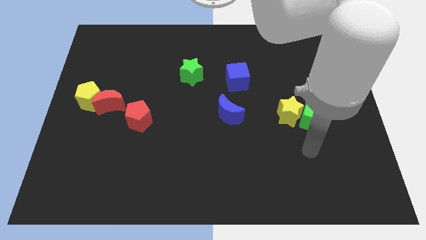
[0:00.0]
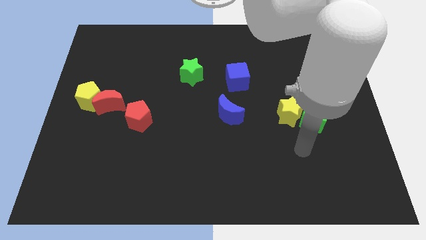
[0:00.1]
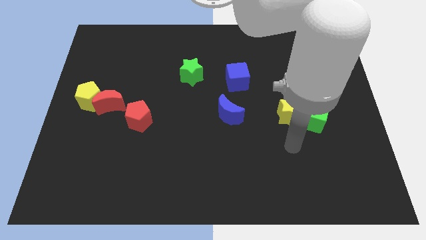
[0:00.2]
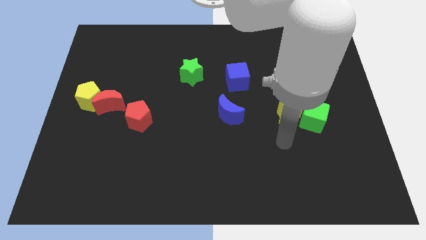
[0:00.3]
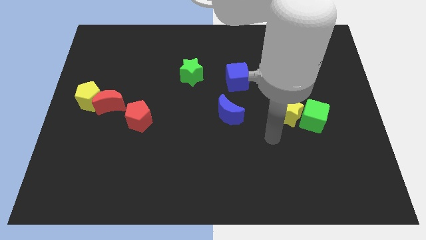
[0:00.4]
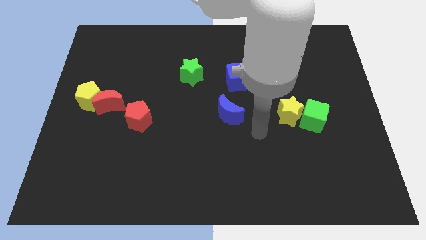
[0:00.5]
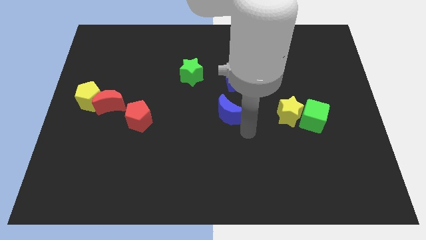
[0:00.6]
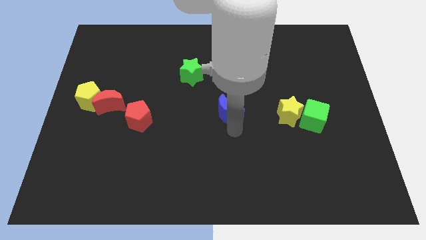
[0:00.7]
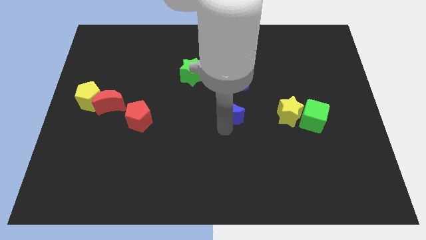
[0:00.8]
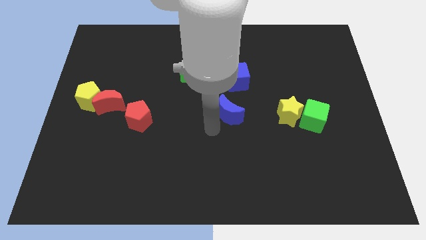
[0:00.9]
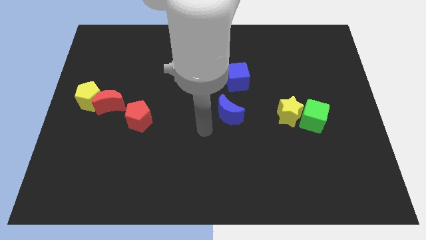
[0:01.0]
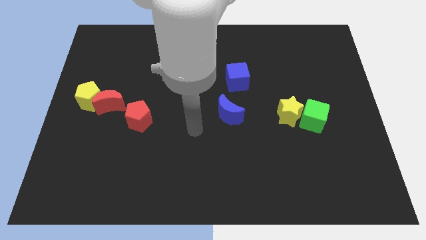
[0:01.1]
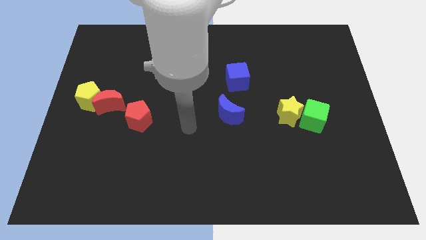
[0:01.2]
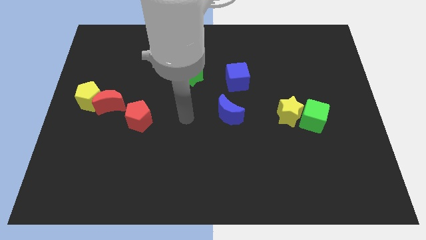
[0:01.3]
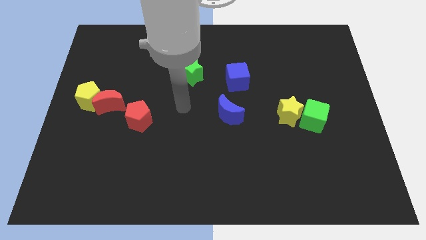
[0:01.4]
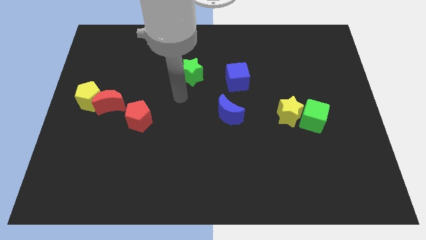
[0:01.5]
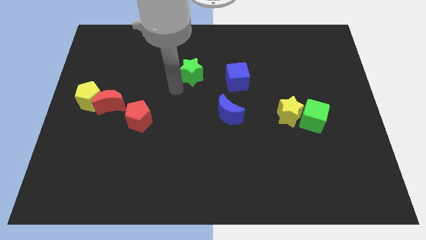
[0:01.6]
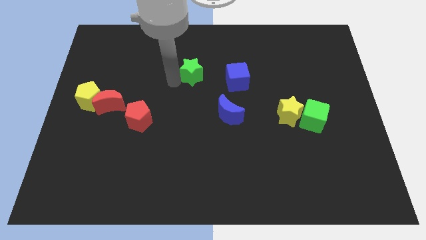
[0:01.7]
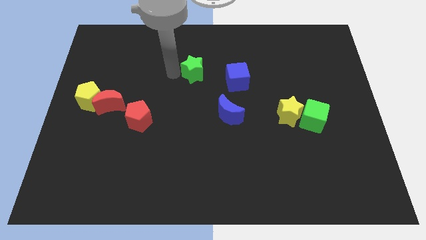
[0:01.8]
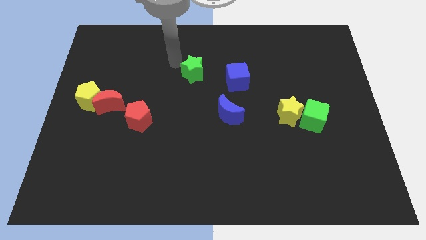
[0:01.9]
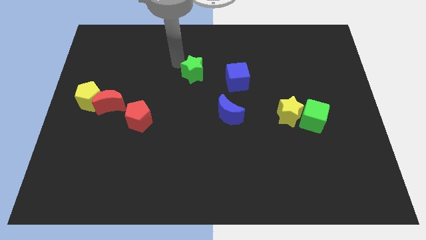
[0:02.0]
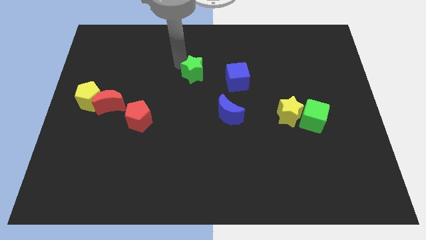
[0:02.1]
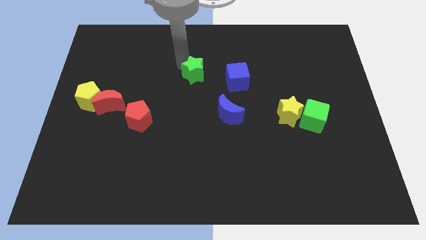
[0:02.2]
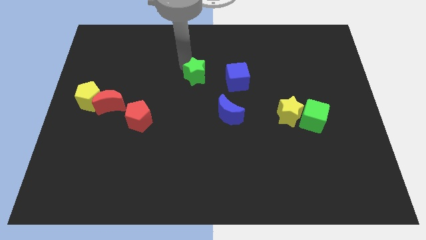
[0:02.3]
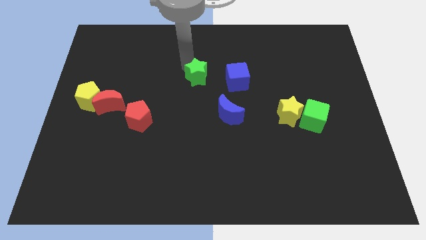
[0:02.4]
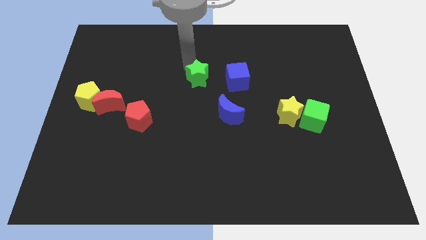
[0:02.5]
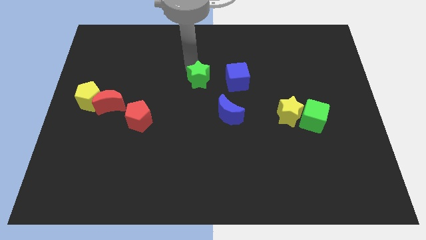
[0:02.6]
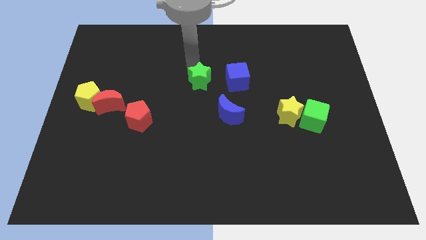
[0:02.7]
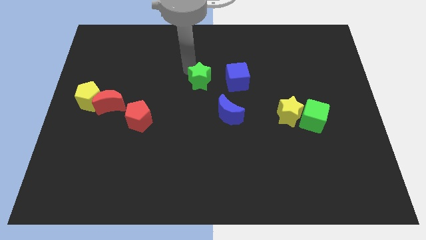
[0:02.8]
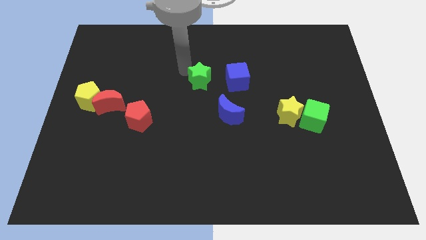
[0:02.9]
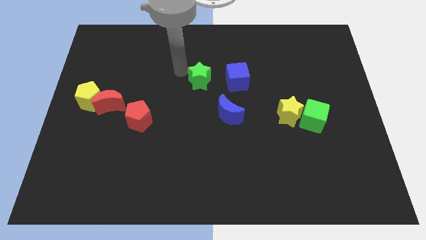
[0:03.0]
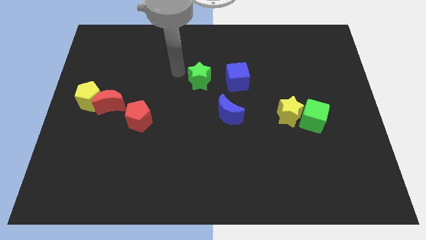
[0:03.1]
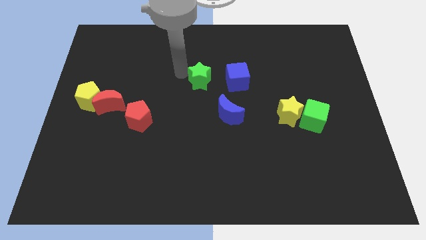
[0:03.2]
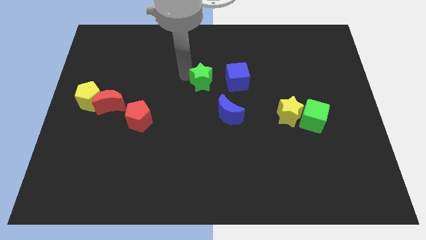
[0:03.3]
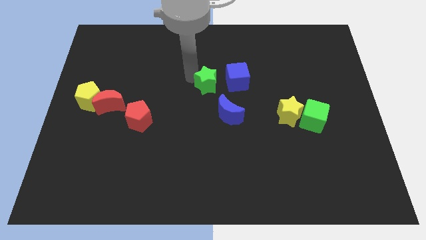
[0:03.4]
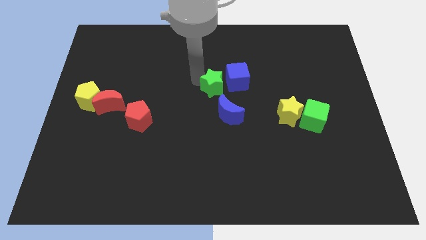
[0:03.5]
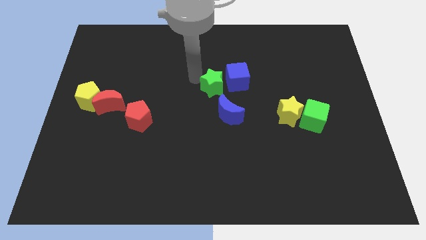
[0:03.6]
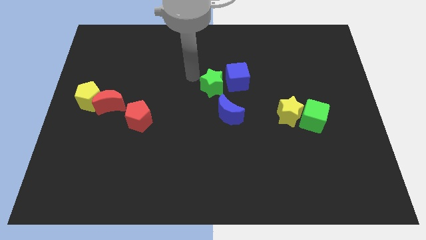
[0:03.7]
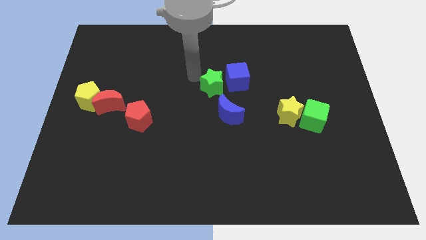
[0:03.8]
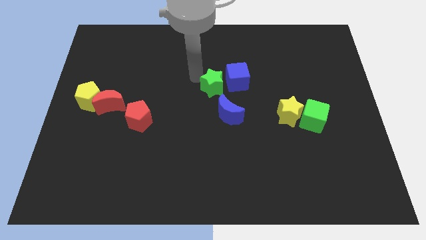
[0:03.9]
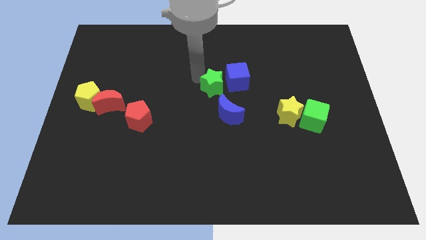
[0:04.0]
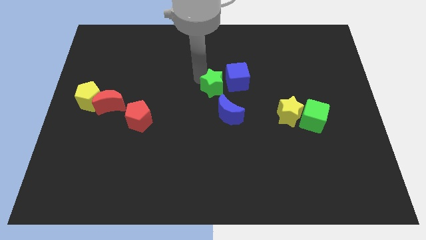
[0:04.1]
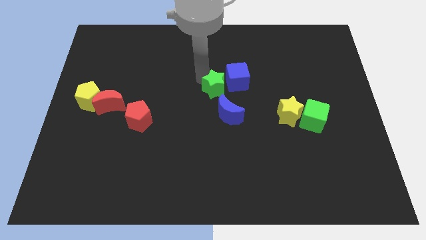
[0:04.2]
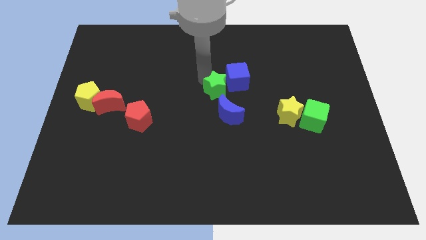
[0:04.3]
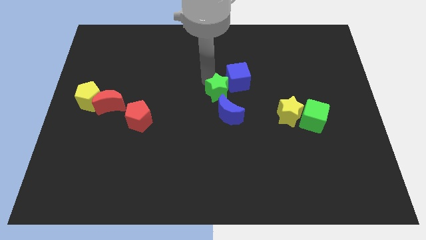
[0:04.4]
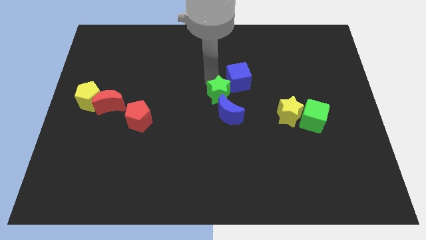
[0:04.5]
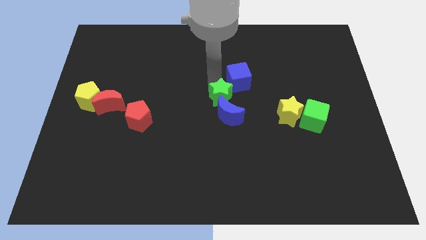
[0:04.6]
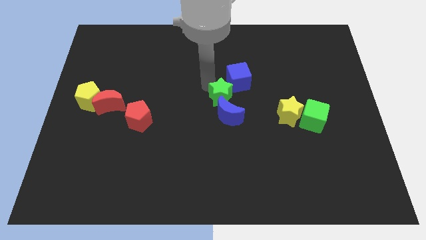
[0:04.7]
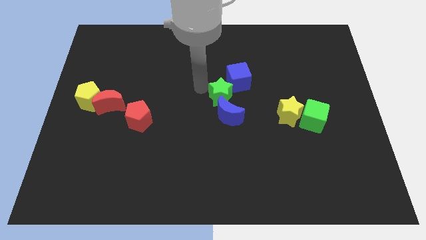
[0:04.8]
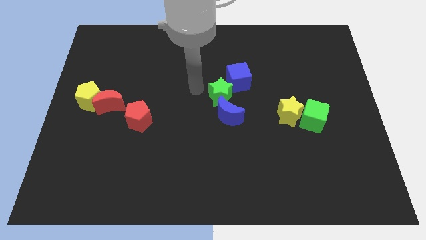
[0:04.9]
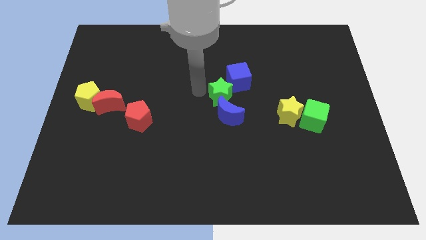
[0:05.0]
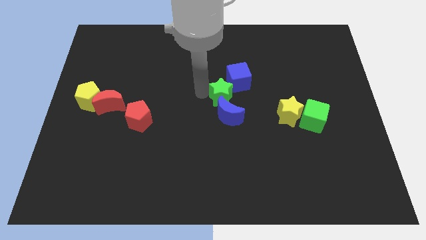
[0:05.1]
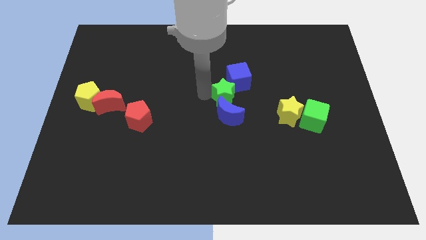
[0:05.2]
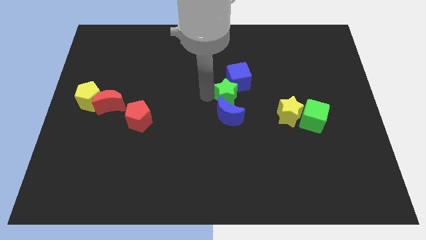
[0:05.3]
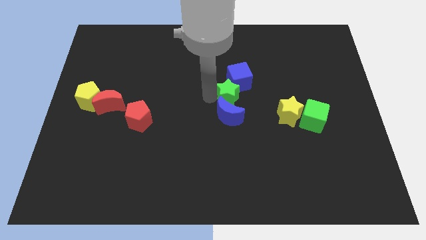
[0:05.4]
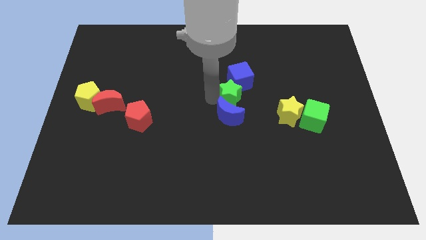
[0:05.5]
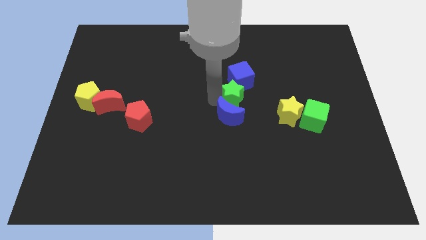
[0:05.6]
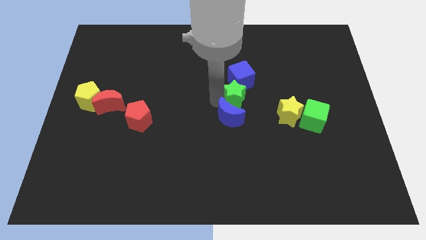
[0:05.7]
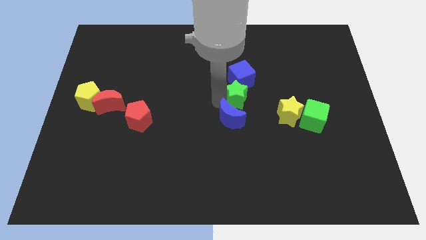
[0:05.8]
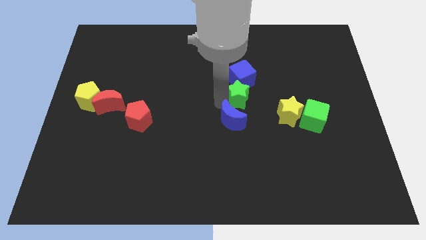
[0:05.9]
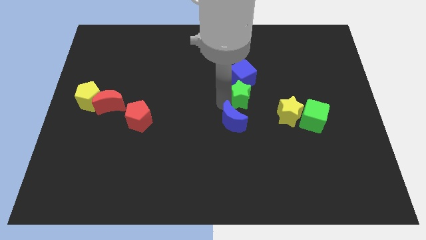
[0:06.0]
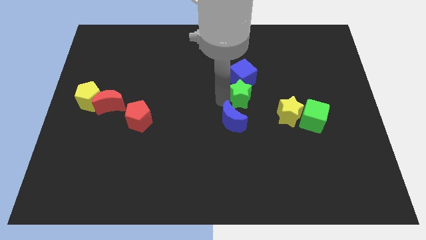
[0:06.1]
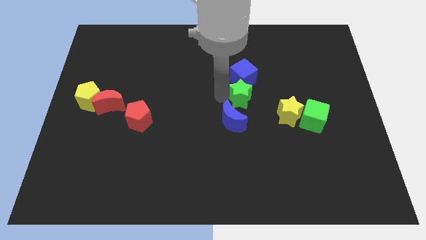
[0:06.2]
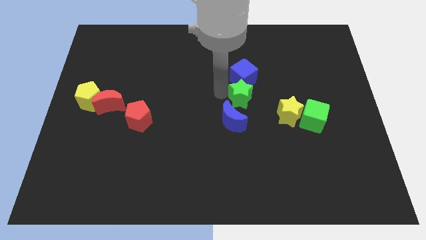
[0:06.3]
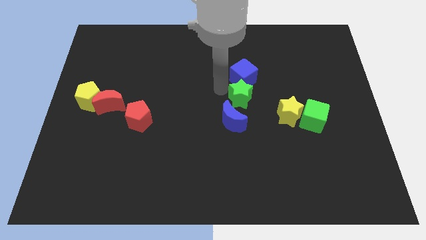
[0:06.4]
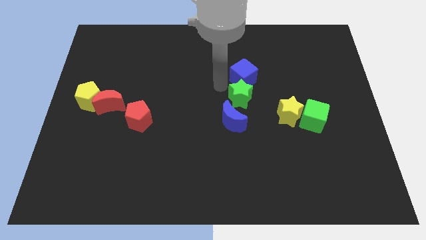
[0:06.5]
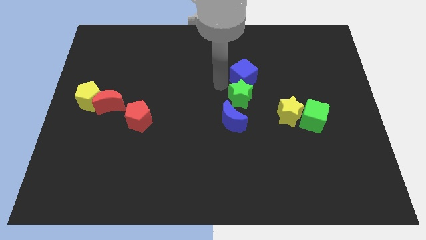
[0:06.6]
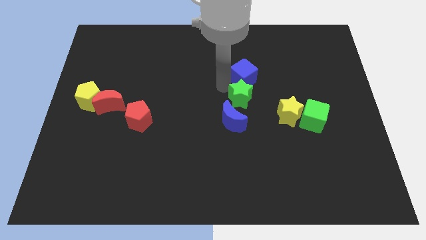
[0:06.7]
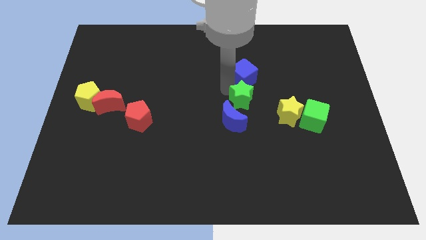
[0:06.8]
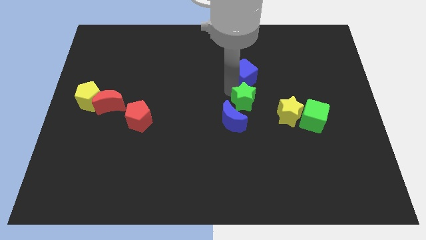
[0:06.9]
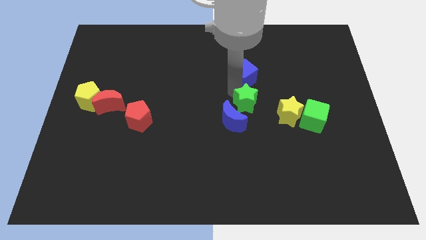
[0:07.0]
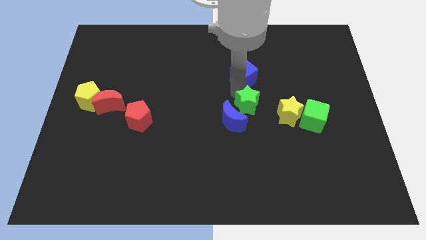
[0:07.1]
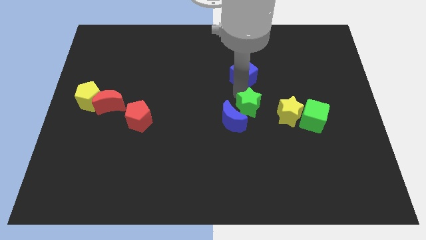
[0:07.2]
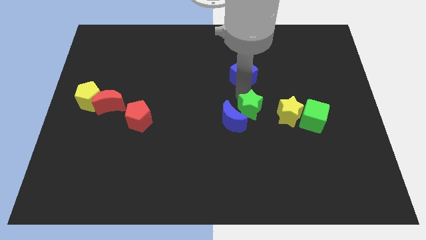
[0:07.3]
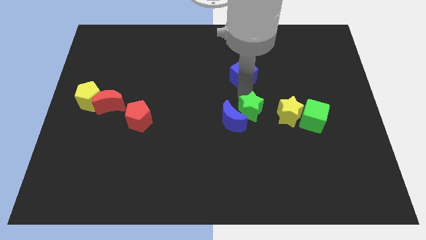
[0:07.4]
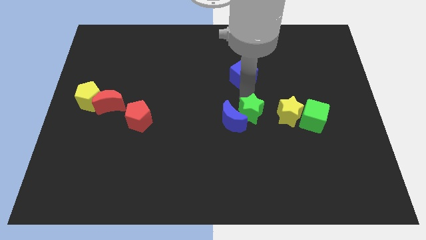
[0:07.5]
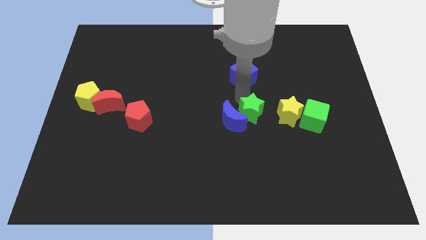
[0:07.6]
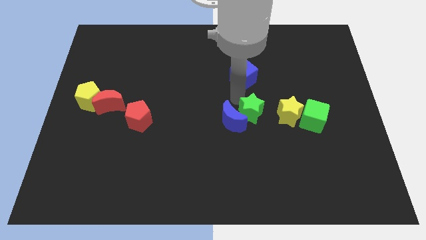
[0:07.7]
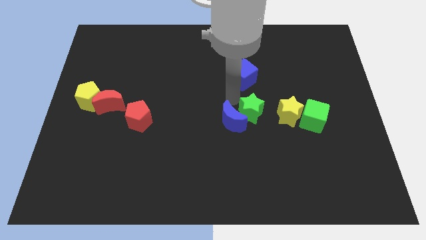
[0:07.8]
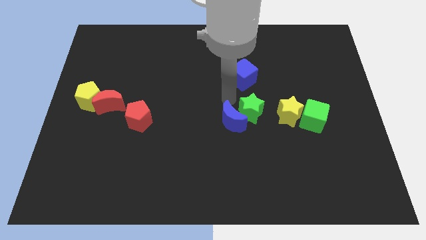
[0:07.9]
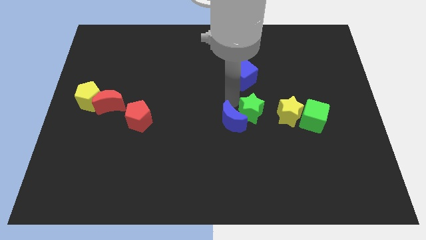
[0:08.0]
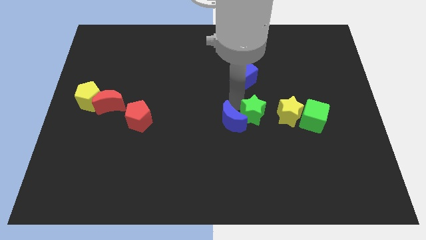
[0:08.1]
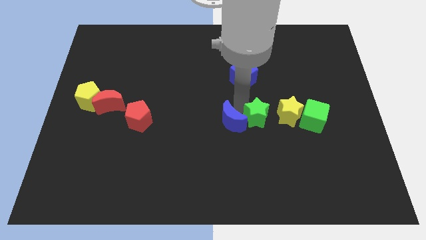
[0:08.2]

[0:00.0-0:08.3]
slide the green star diagonally down and to the right
